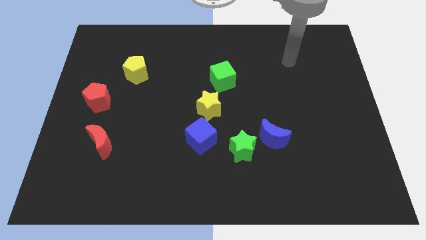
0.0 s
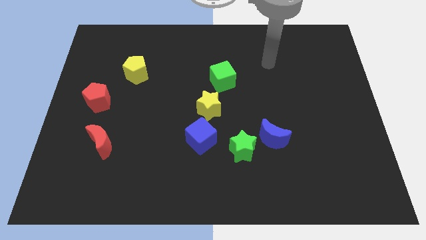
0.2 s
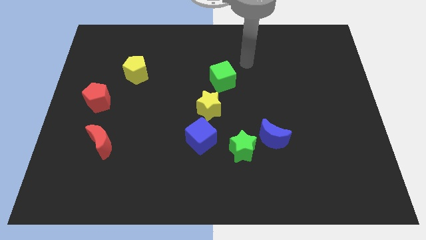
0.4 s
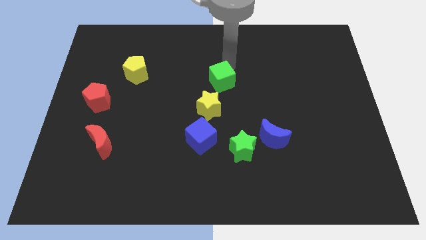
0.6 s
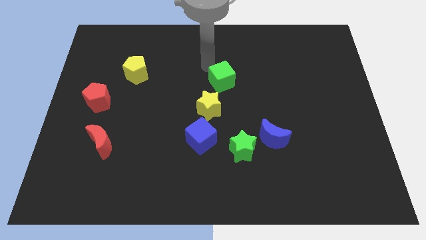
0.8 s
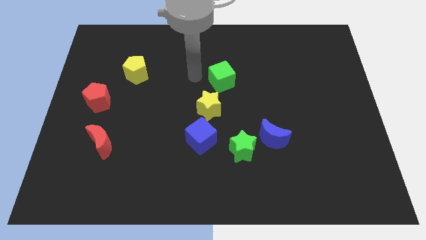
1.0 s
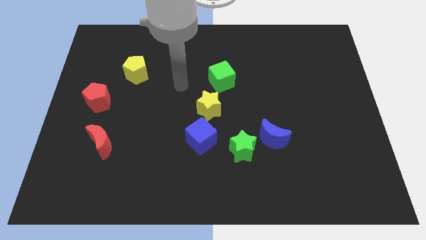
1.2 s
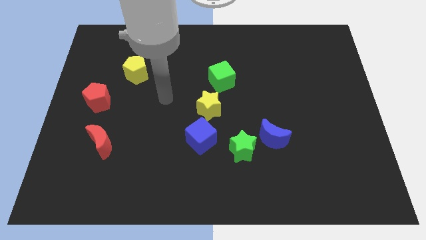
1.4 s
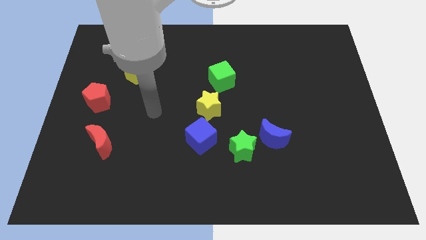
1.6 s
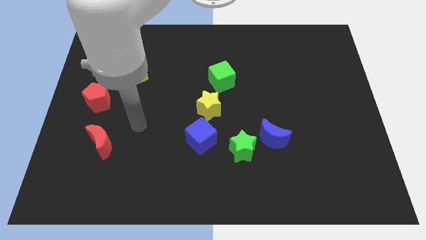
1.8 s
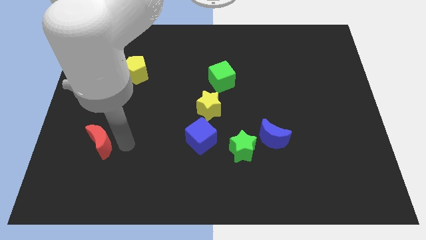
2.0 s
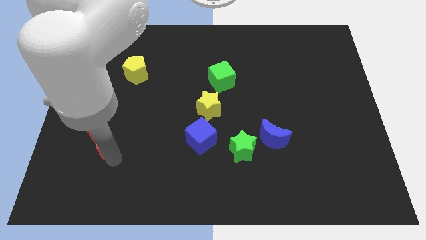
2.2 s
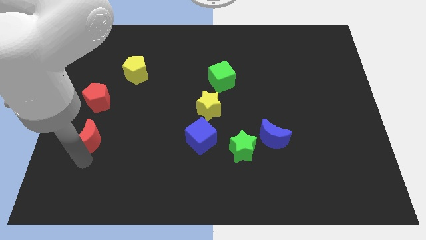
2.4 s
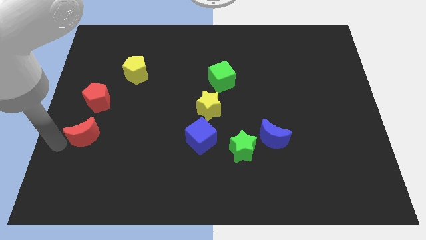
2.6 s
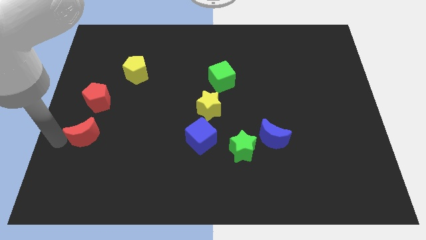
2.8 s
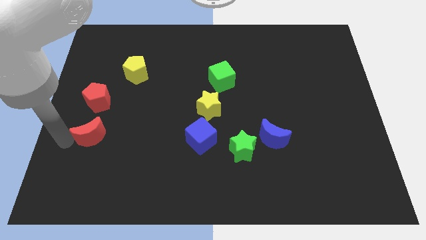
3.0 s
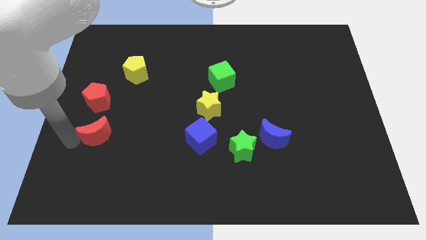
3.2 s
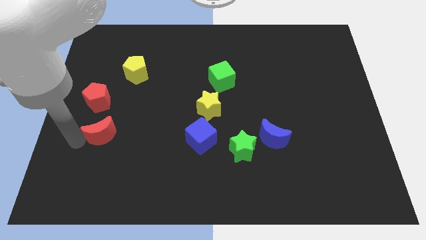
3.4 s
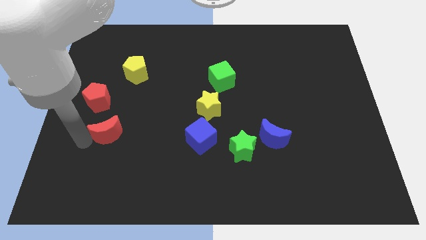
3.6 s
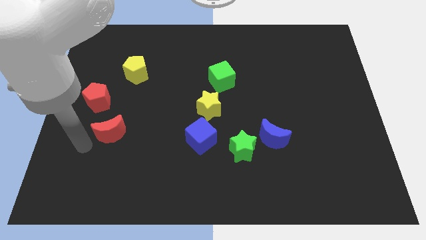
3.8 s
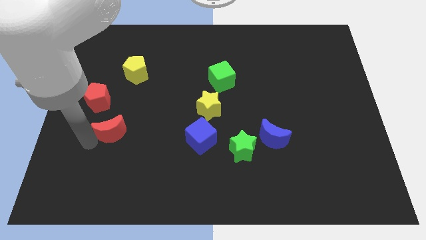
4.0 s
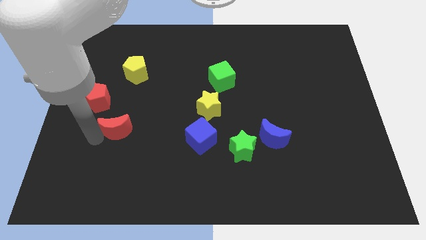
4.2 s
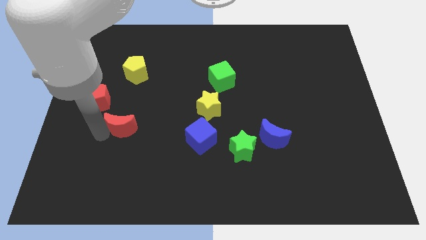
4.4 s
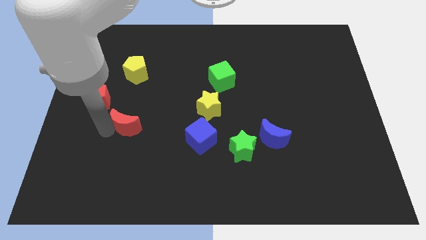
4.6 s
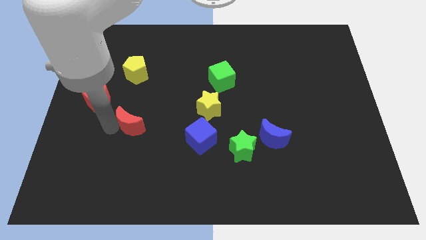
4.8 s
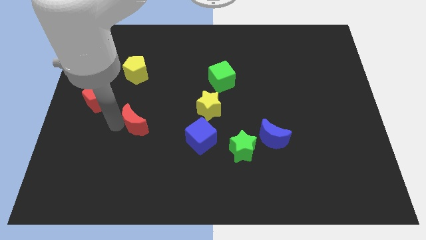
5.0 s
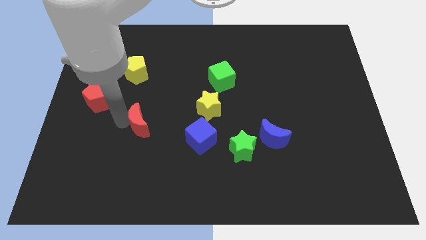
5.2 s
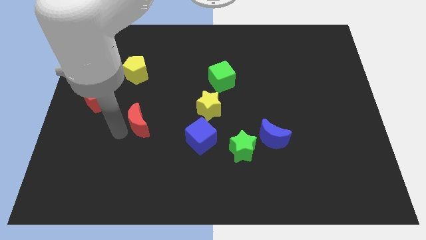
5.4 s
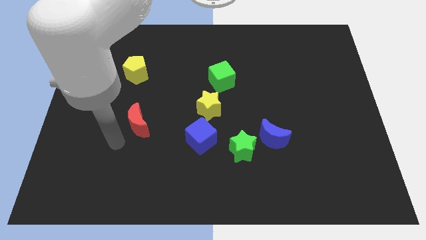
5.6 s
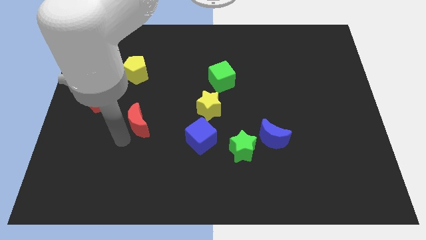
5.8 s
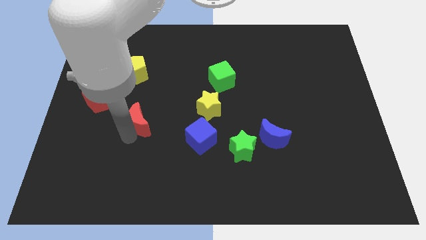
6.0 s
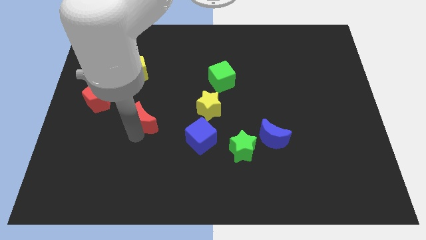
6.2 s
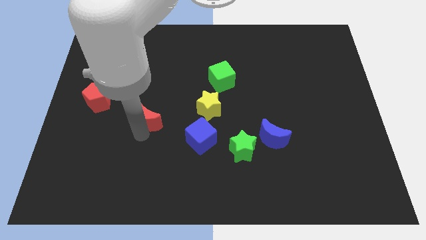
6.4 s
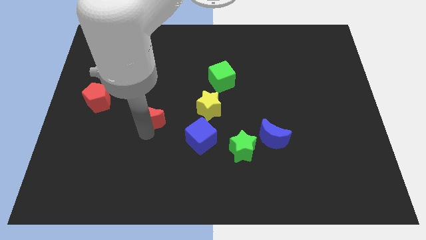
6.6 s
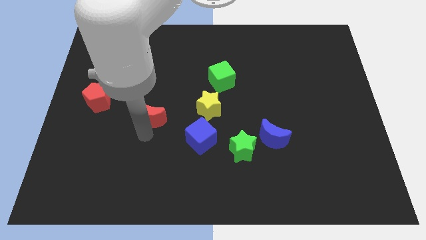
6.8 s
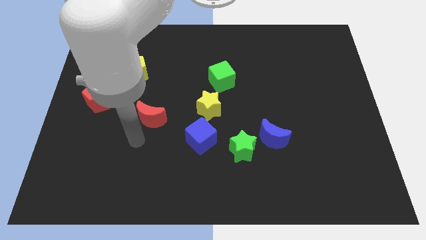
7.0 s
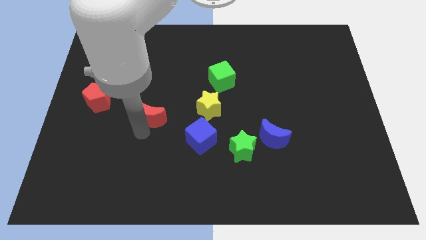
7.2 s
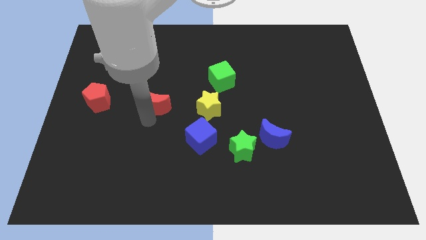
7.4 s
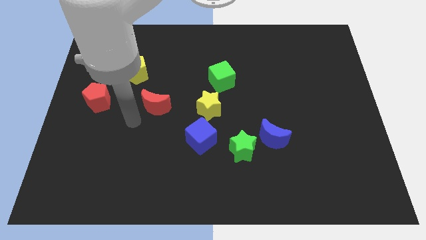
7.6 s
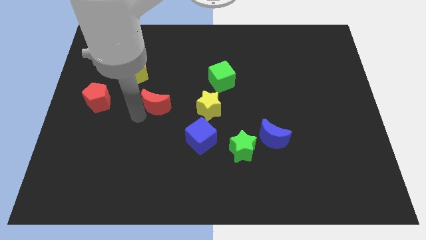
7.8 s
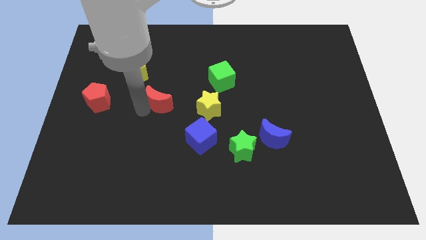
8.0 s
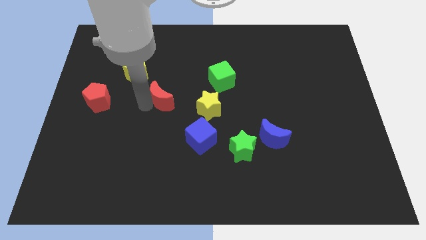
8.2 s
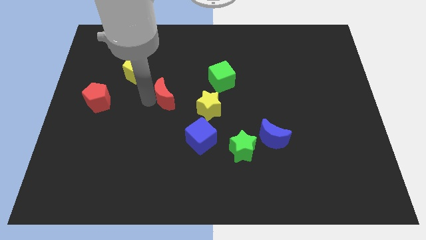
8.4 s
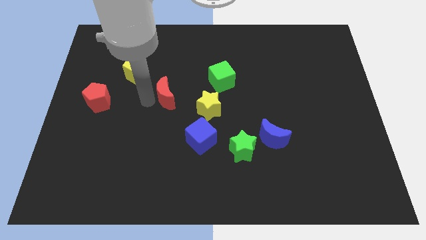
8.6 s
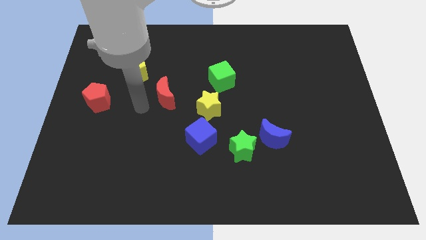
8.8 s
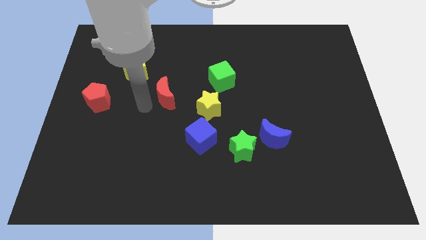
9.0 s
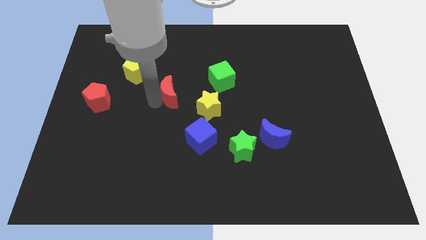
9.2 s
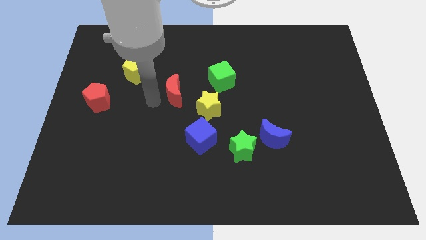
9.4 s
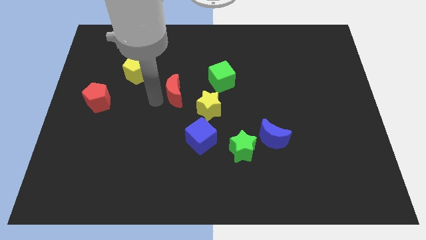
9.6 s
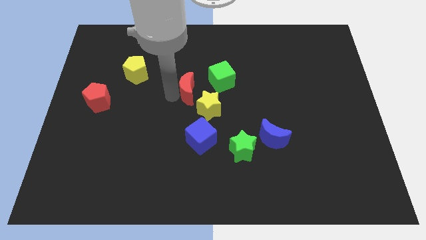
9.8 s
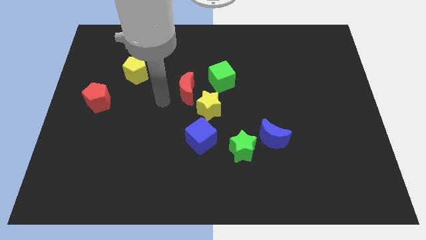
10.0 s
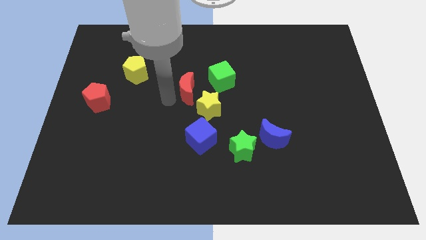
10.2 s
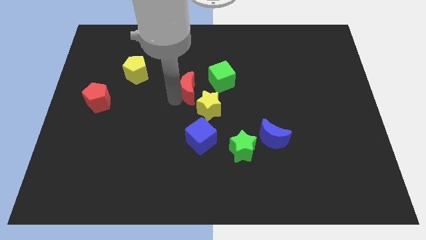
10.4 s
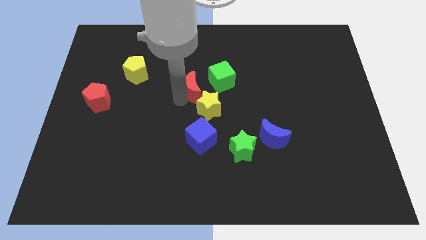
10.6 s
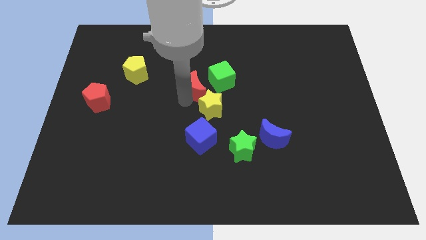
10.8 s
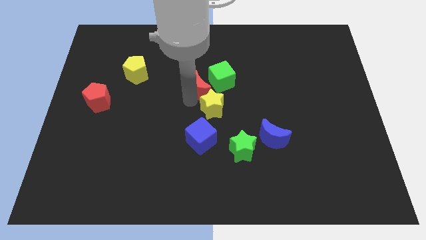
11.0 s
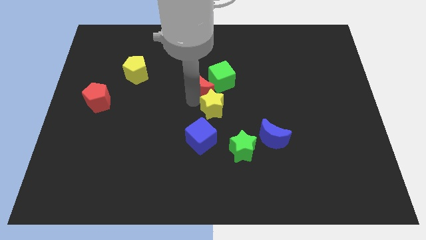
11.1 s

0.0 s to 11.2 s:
push the red moon close to the green cube

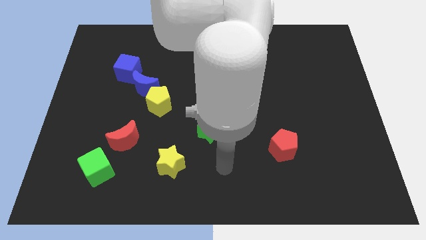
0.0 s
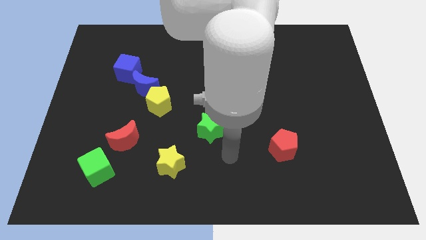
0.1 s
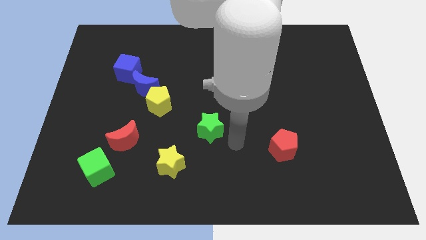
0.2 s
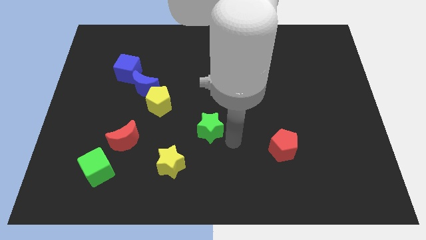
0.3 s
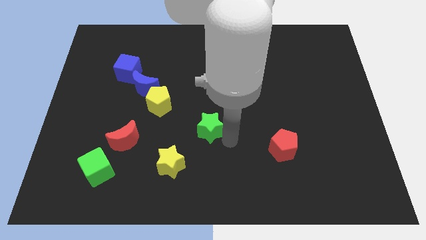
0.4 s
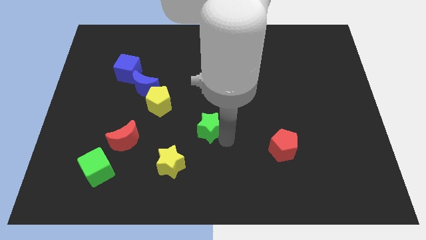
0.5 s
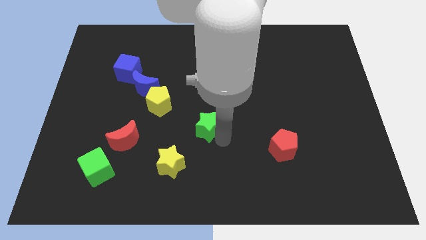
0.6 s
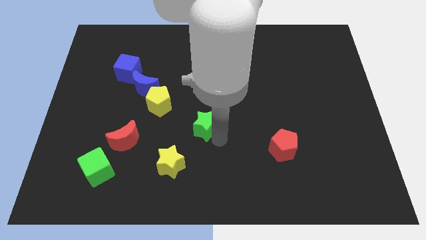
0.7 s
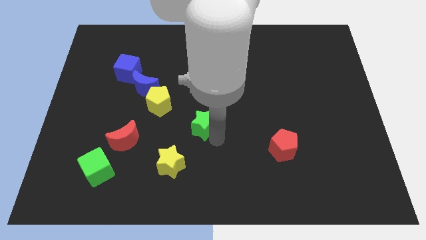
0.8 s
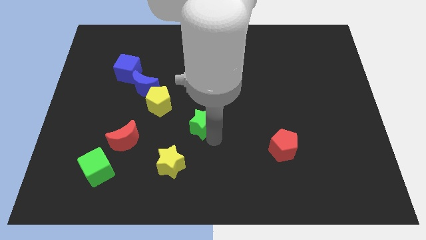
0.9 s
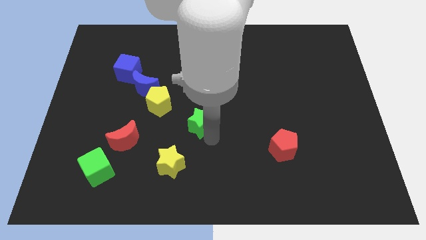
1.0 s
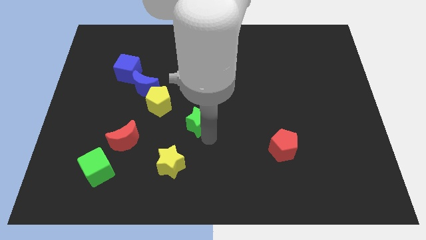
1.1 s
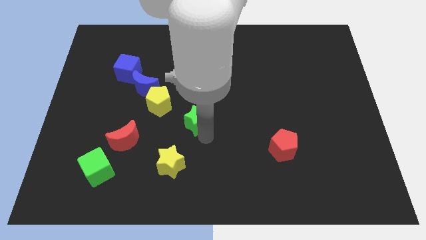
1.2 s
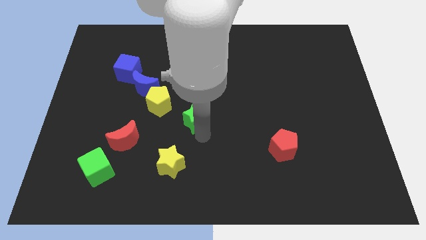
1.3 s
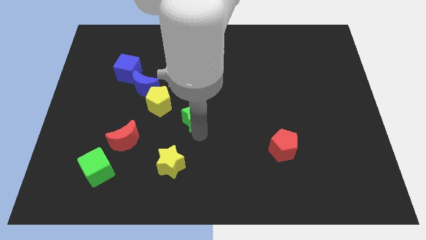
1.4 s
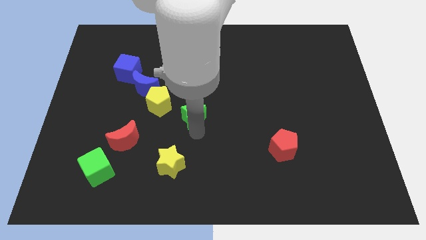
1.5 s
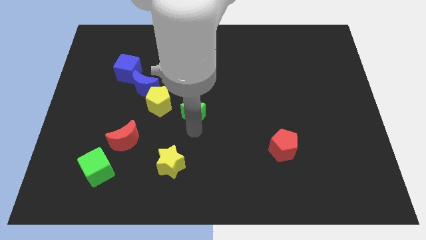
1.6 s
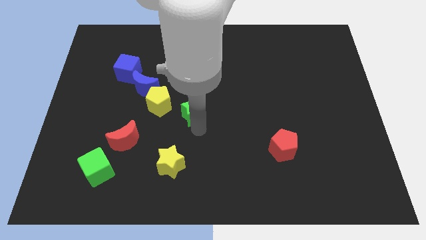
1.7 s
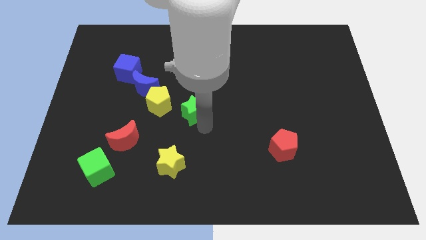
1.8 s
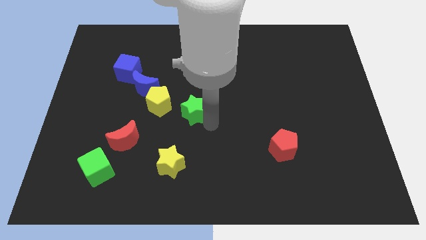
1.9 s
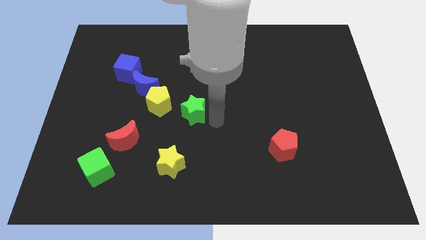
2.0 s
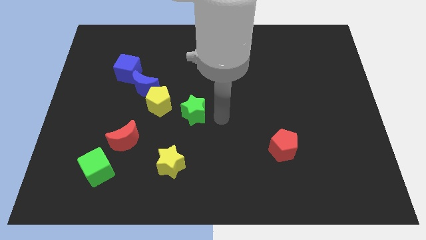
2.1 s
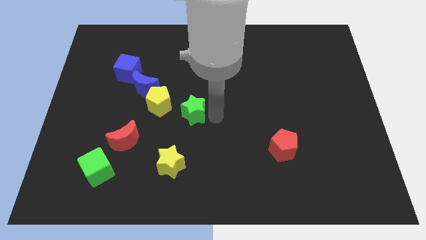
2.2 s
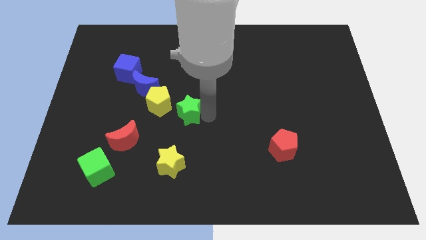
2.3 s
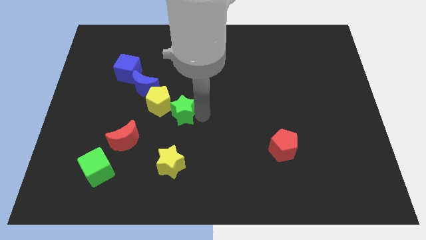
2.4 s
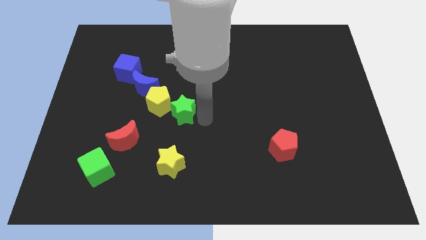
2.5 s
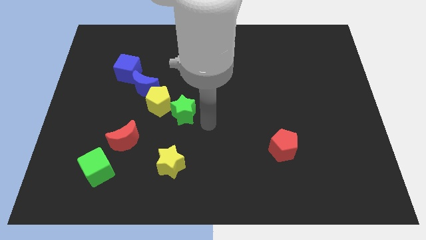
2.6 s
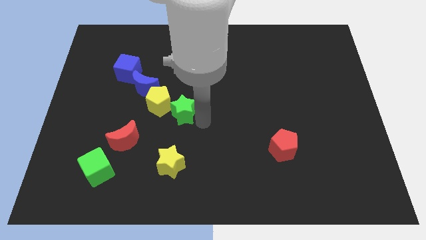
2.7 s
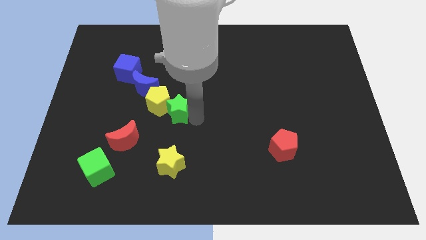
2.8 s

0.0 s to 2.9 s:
move the green star to the yellow pentagon
